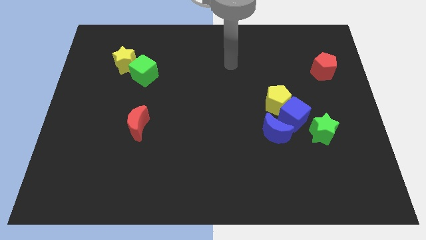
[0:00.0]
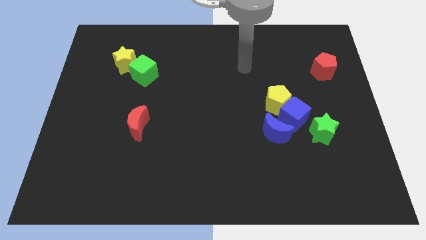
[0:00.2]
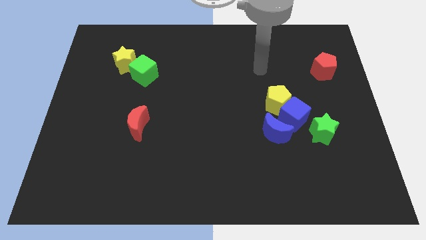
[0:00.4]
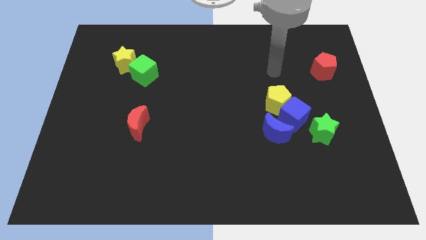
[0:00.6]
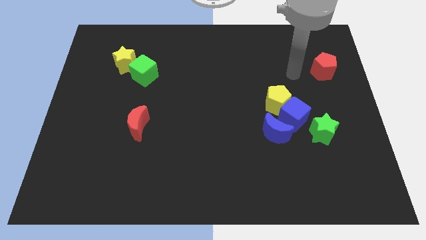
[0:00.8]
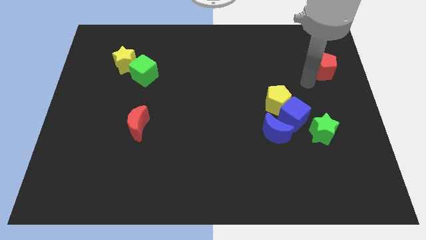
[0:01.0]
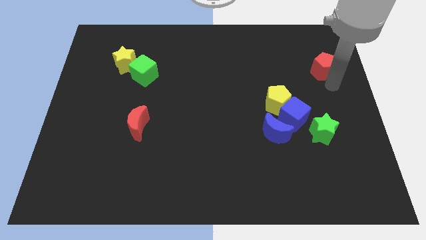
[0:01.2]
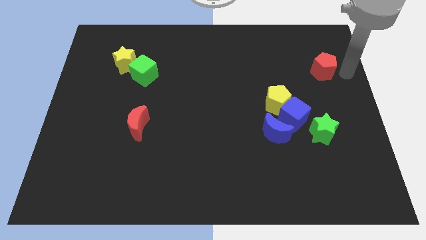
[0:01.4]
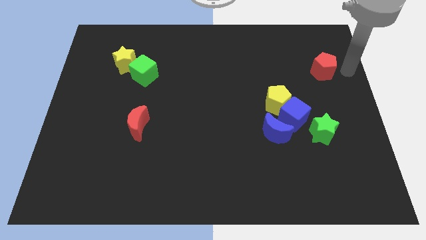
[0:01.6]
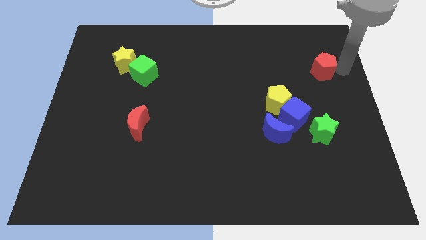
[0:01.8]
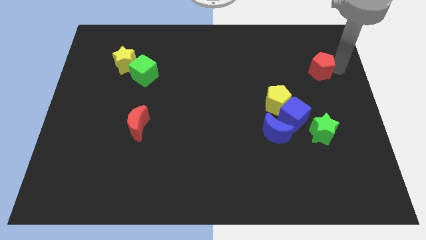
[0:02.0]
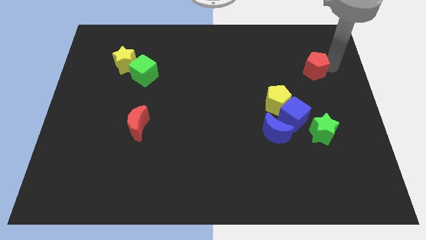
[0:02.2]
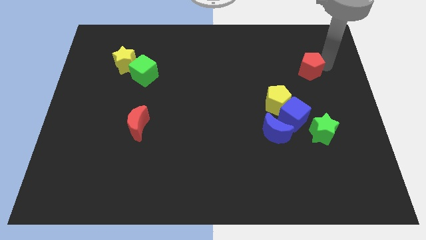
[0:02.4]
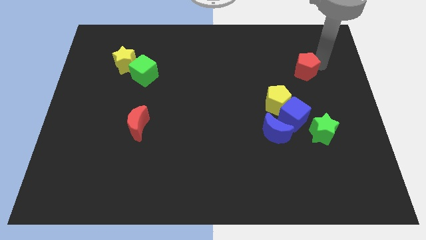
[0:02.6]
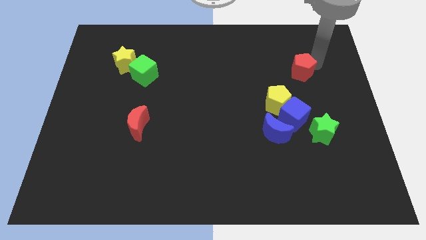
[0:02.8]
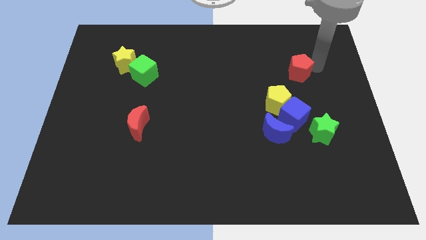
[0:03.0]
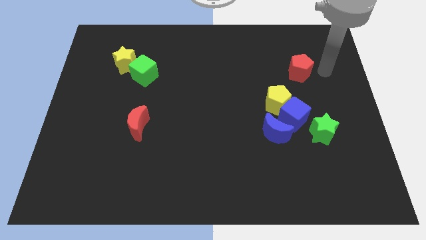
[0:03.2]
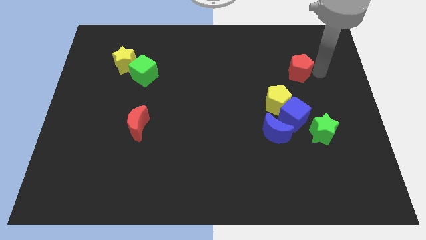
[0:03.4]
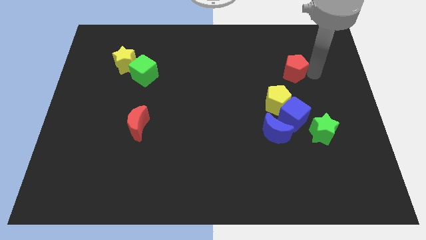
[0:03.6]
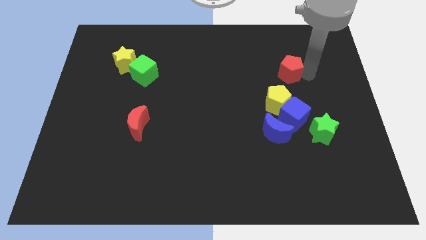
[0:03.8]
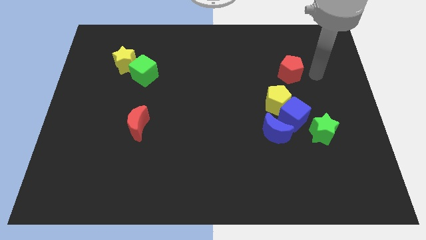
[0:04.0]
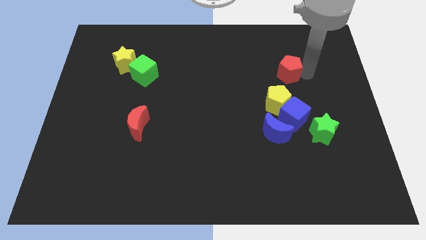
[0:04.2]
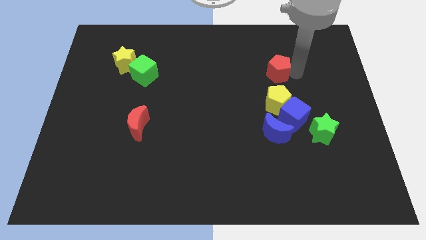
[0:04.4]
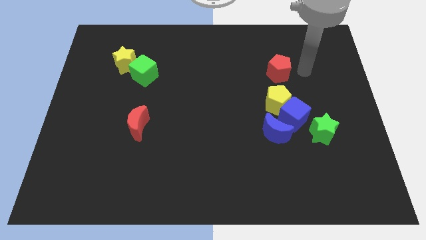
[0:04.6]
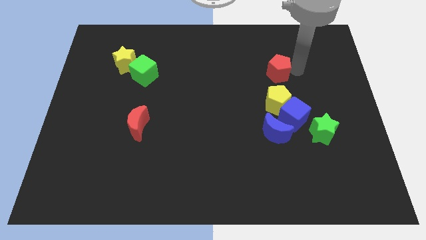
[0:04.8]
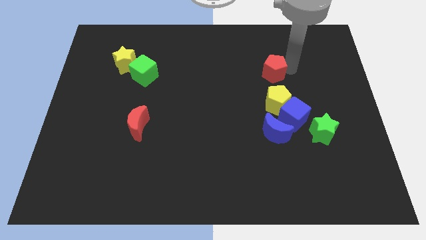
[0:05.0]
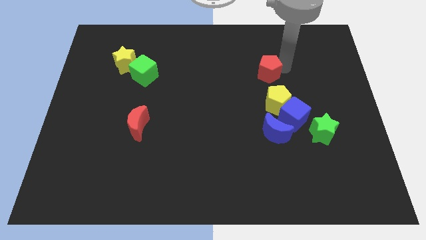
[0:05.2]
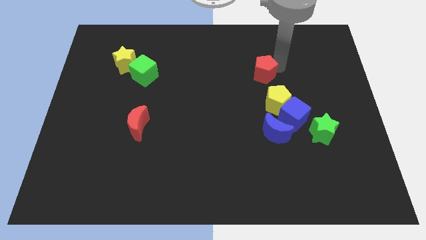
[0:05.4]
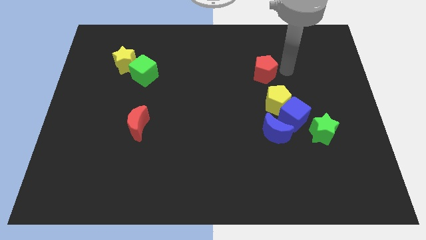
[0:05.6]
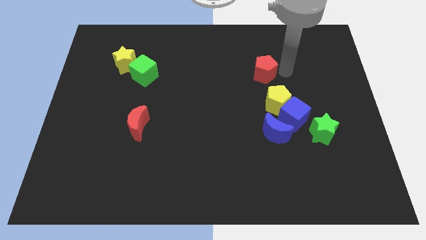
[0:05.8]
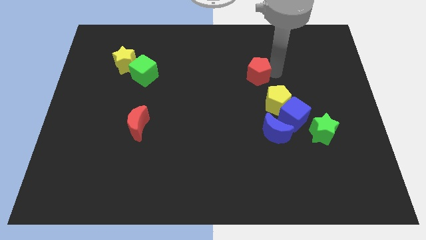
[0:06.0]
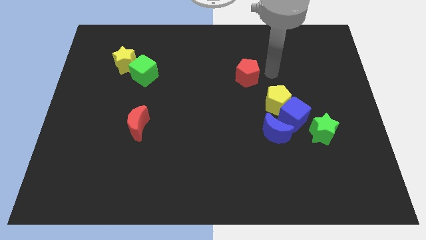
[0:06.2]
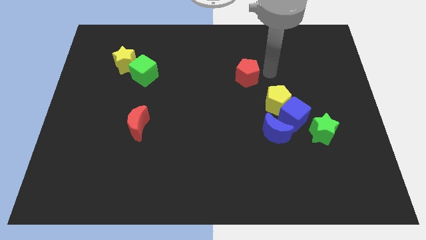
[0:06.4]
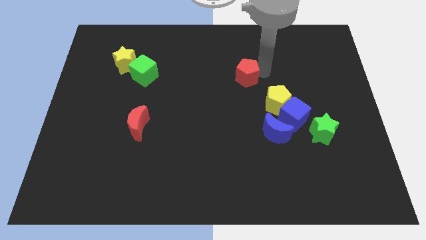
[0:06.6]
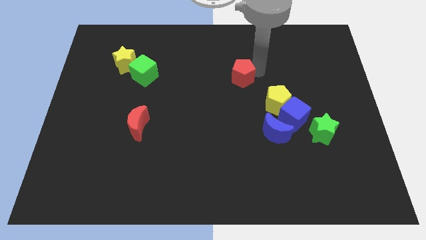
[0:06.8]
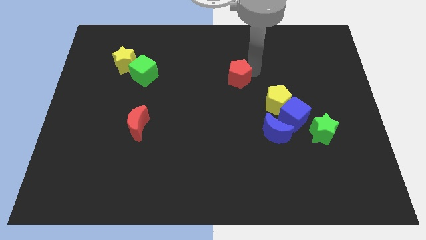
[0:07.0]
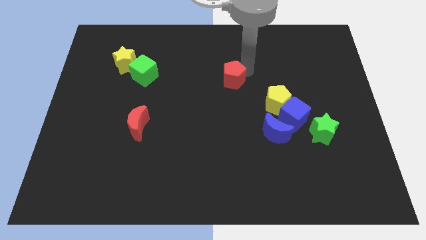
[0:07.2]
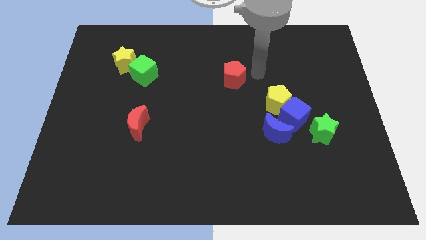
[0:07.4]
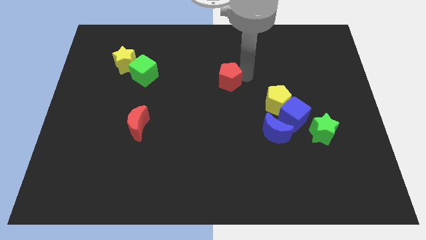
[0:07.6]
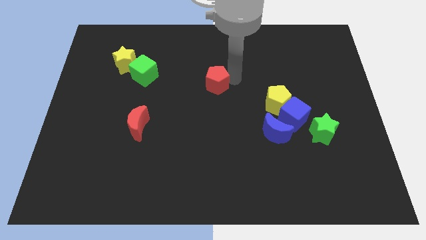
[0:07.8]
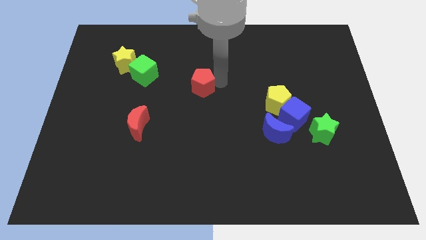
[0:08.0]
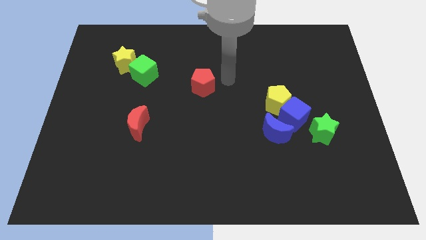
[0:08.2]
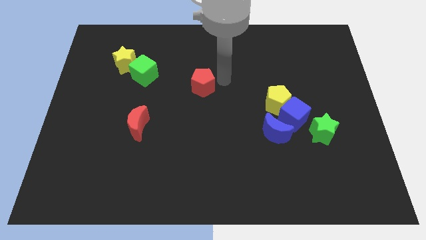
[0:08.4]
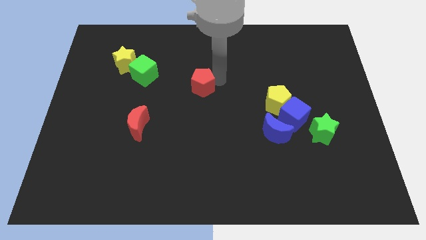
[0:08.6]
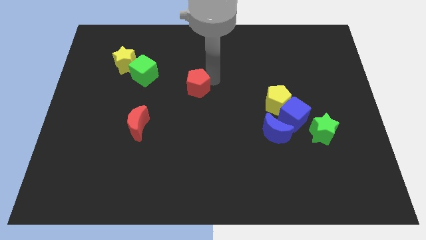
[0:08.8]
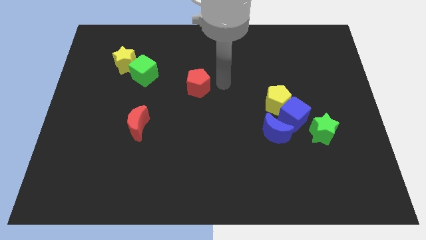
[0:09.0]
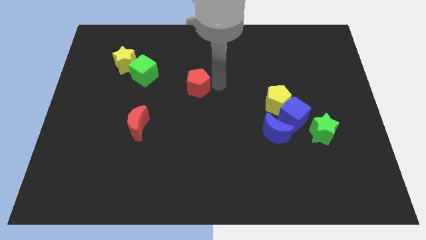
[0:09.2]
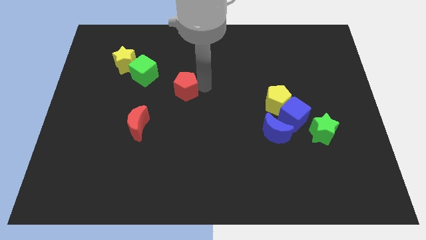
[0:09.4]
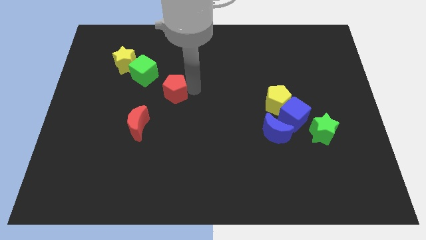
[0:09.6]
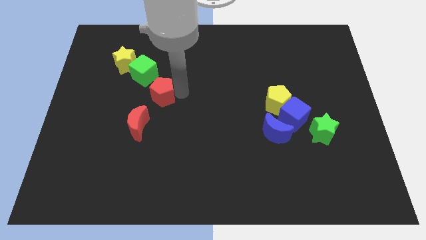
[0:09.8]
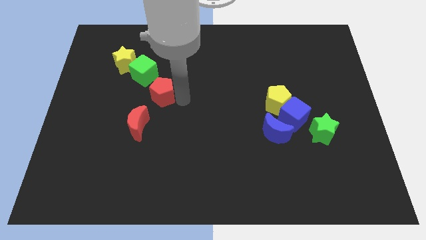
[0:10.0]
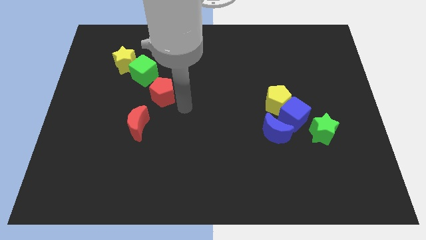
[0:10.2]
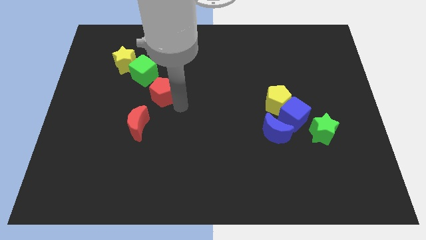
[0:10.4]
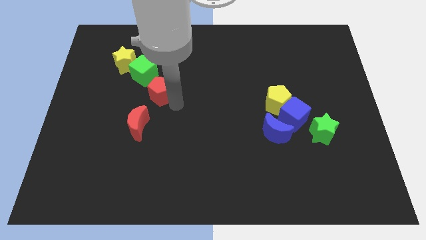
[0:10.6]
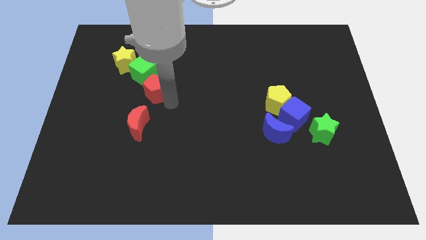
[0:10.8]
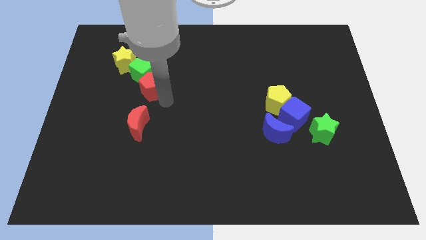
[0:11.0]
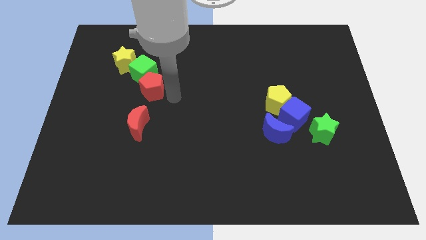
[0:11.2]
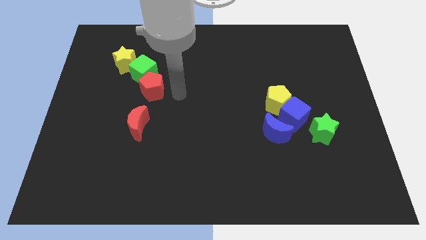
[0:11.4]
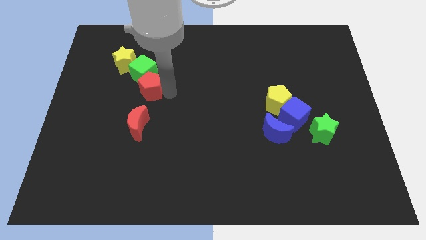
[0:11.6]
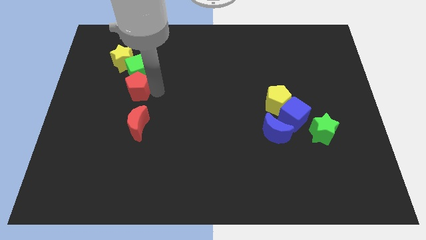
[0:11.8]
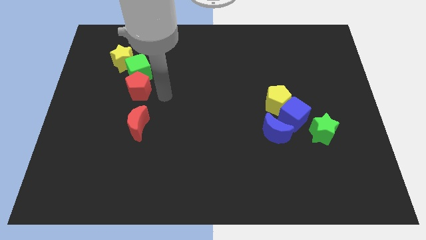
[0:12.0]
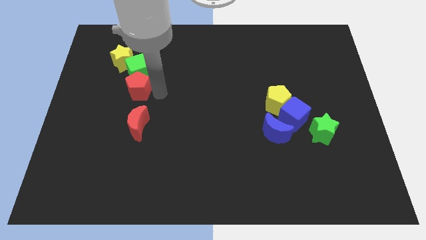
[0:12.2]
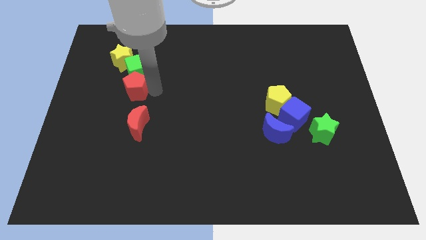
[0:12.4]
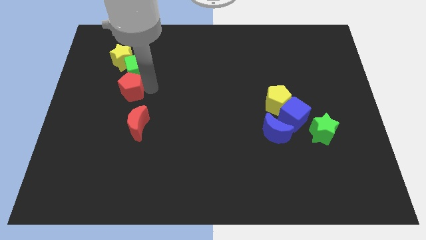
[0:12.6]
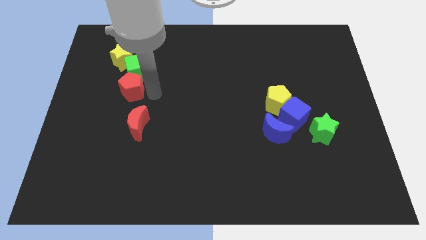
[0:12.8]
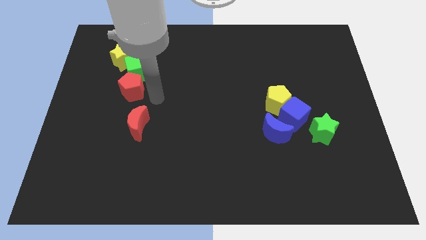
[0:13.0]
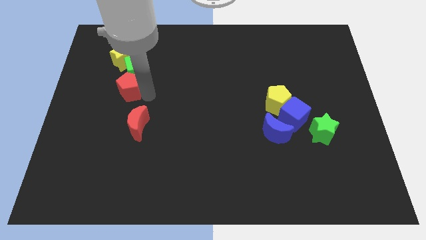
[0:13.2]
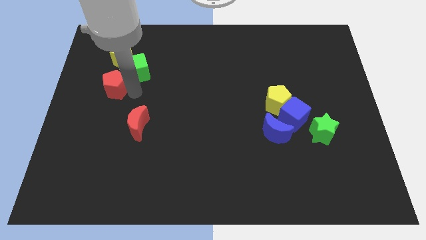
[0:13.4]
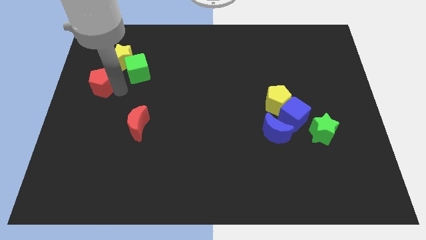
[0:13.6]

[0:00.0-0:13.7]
move the red pentagon diagonally down and to the left of the yellow star
